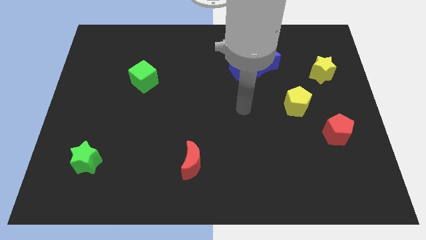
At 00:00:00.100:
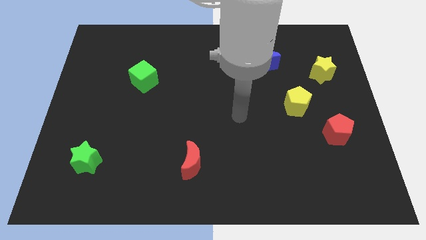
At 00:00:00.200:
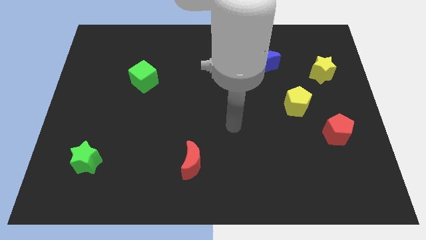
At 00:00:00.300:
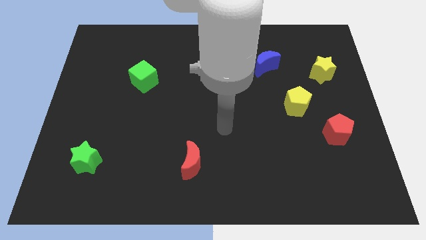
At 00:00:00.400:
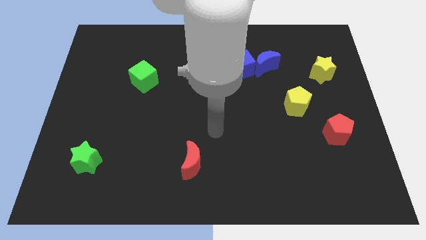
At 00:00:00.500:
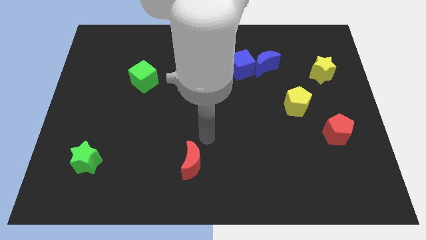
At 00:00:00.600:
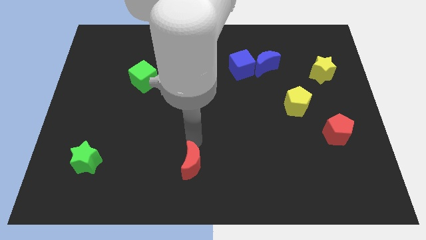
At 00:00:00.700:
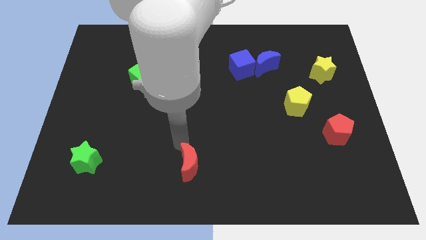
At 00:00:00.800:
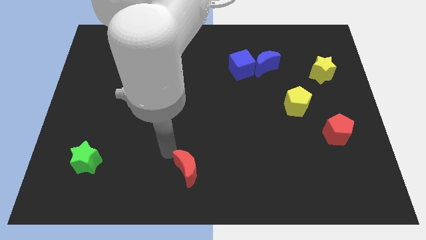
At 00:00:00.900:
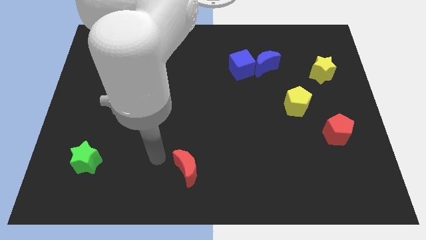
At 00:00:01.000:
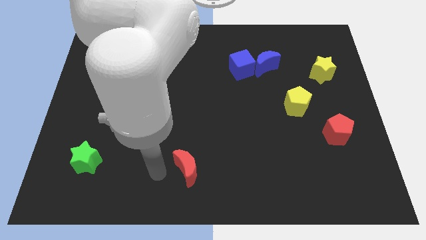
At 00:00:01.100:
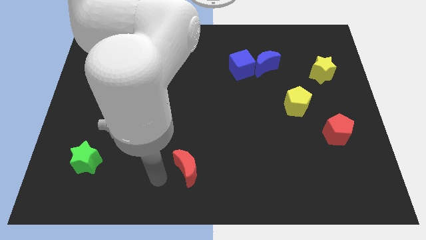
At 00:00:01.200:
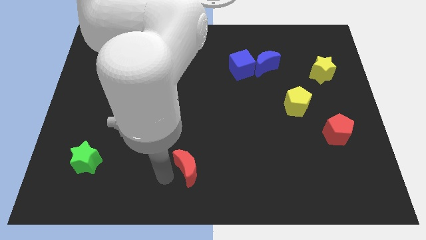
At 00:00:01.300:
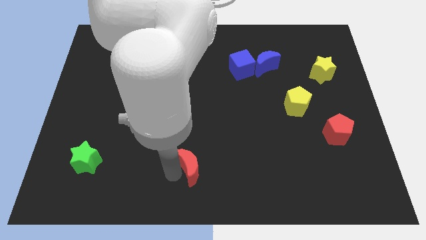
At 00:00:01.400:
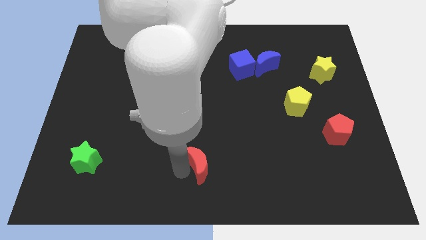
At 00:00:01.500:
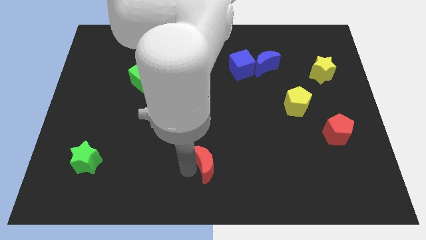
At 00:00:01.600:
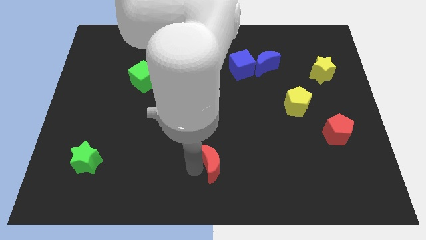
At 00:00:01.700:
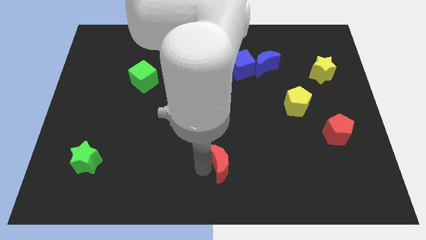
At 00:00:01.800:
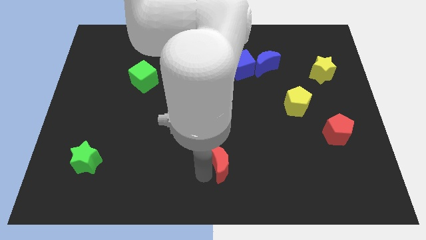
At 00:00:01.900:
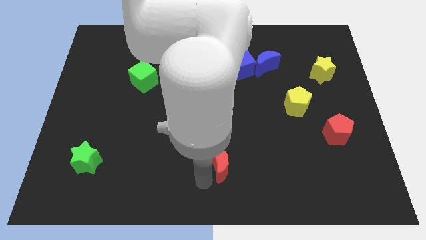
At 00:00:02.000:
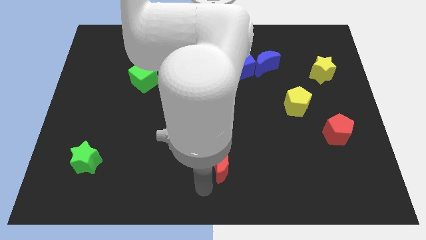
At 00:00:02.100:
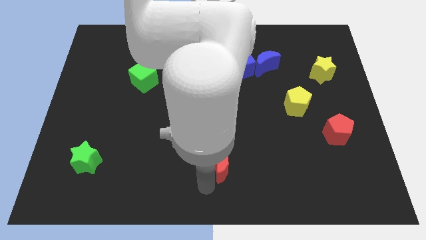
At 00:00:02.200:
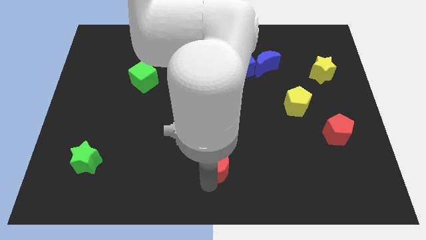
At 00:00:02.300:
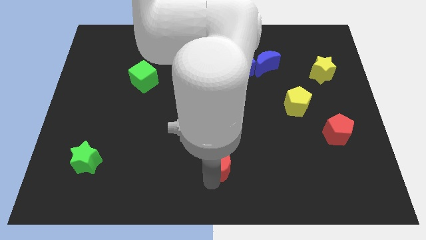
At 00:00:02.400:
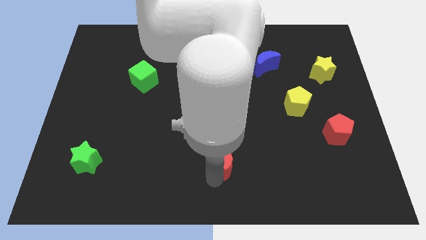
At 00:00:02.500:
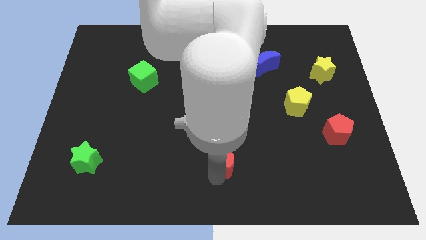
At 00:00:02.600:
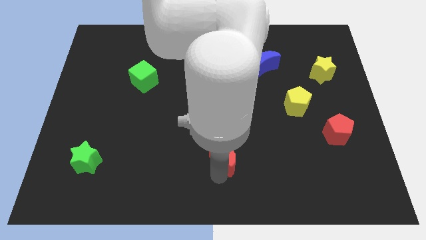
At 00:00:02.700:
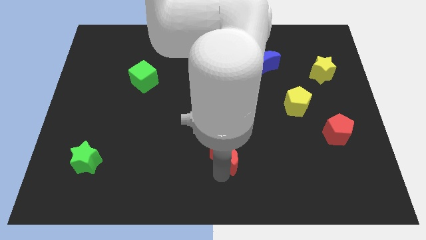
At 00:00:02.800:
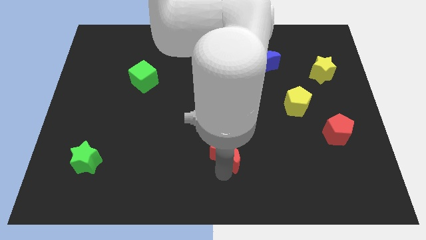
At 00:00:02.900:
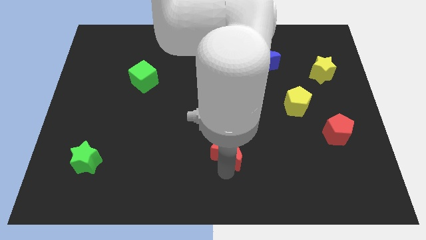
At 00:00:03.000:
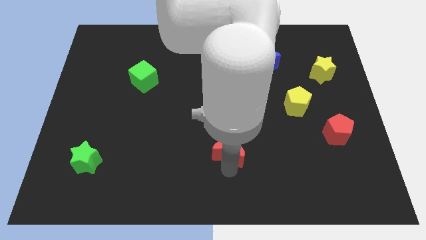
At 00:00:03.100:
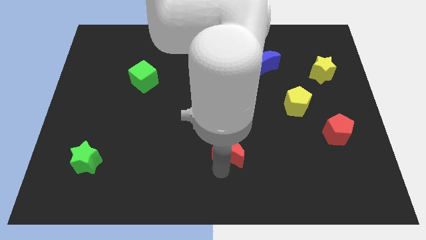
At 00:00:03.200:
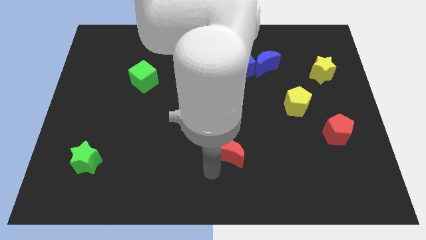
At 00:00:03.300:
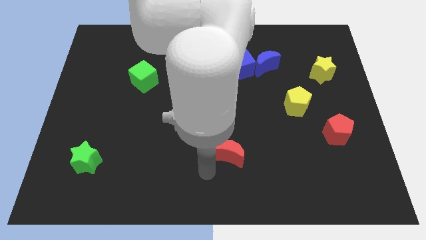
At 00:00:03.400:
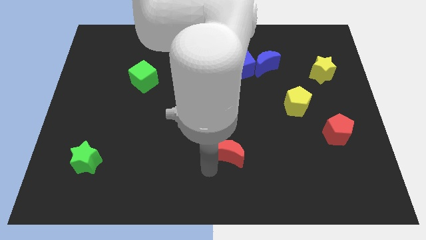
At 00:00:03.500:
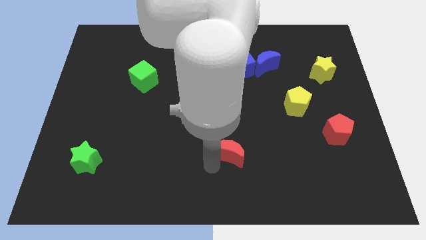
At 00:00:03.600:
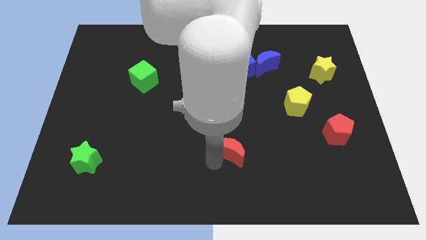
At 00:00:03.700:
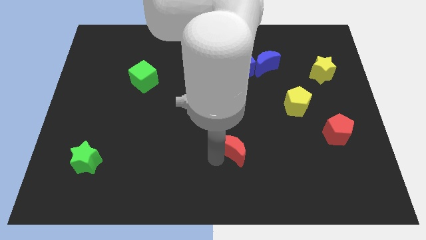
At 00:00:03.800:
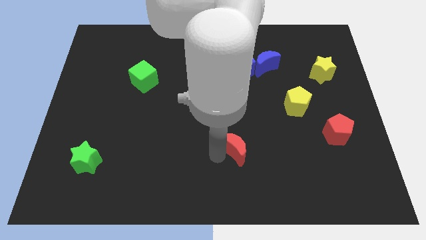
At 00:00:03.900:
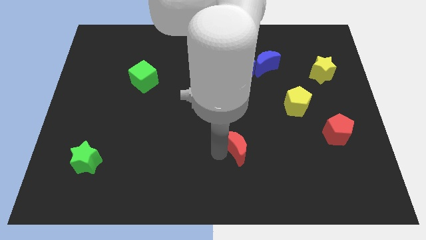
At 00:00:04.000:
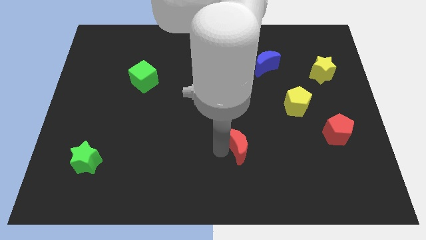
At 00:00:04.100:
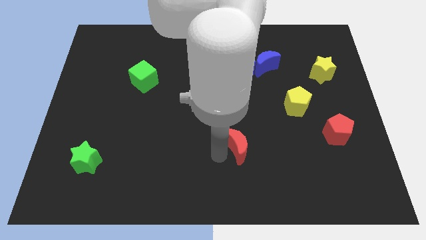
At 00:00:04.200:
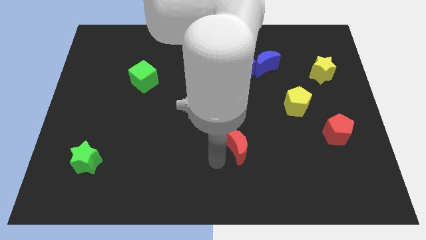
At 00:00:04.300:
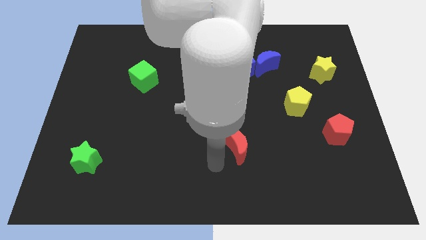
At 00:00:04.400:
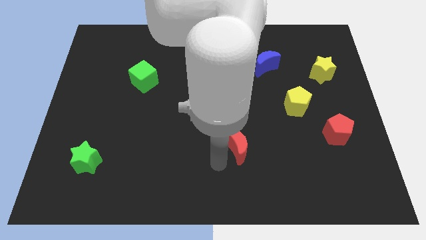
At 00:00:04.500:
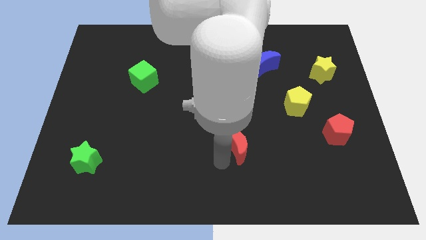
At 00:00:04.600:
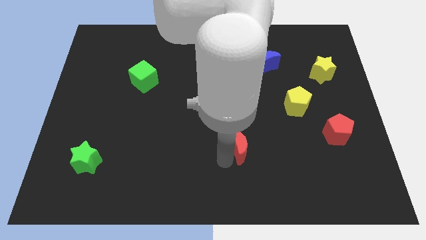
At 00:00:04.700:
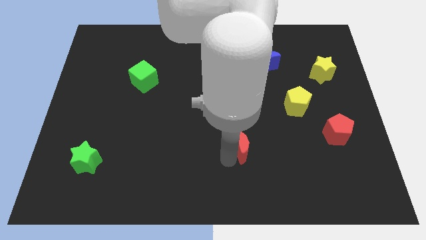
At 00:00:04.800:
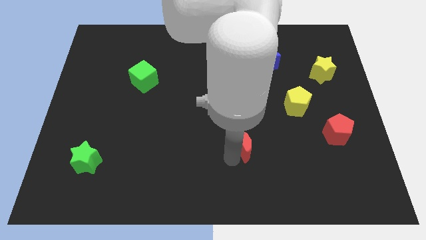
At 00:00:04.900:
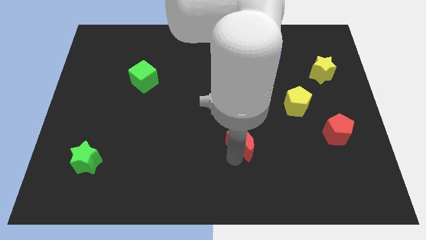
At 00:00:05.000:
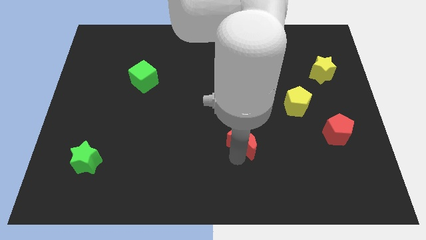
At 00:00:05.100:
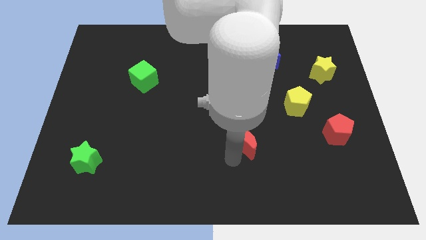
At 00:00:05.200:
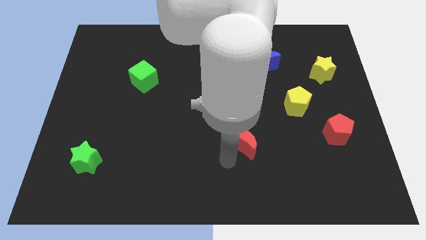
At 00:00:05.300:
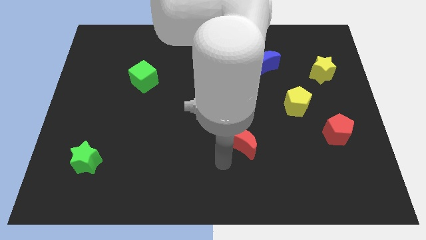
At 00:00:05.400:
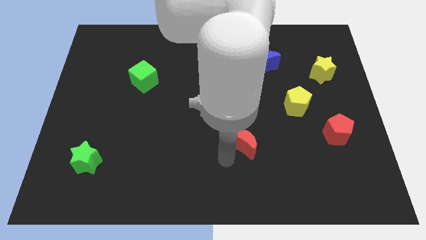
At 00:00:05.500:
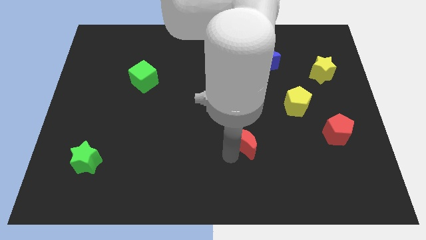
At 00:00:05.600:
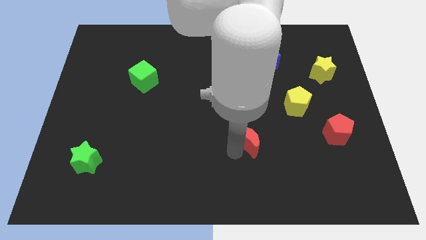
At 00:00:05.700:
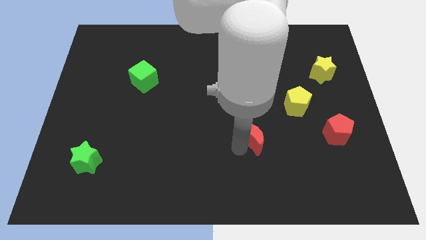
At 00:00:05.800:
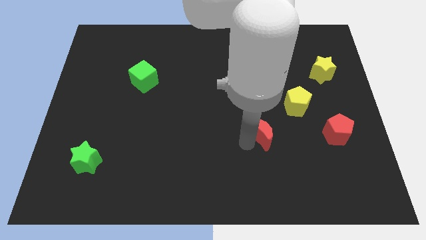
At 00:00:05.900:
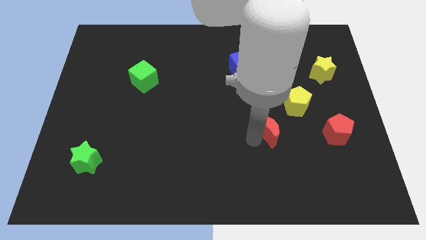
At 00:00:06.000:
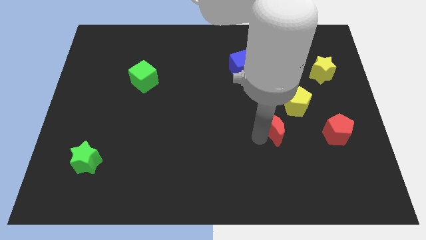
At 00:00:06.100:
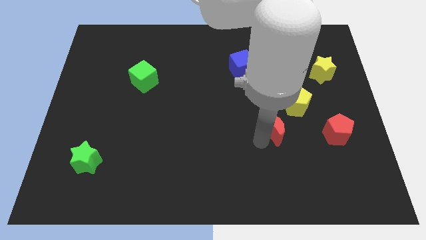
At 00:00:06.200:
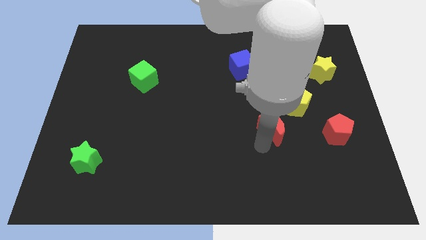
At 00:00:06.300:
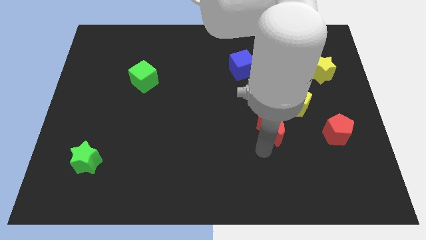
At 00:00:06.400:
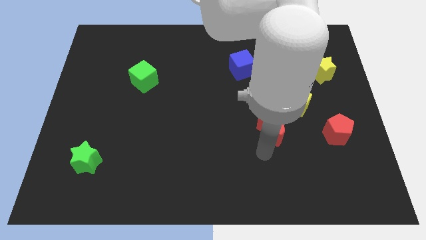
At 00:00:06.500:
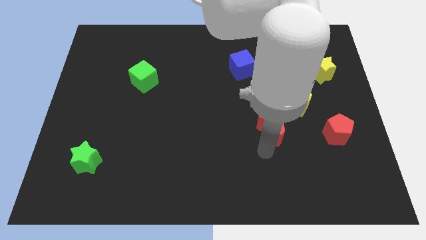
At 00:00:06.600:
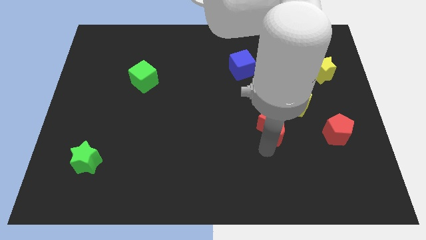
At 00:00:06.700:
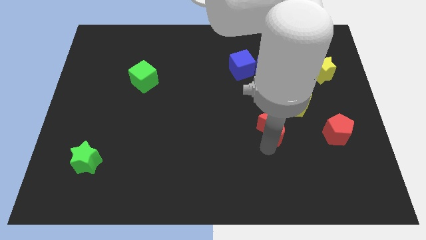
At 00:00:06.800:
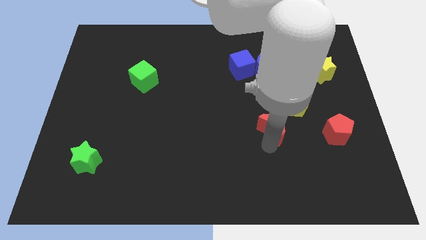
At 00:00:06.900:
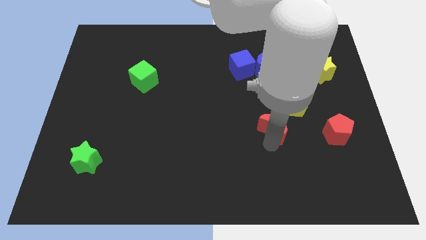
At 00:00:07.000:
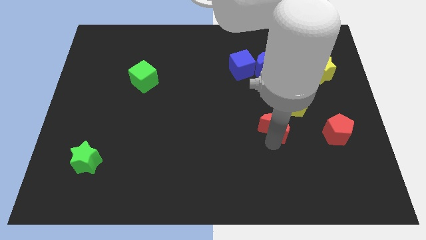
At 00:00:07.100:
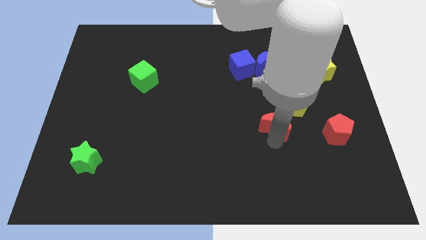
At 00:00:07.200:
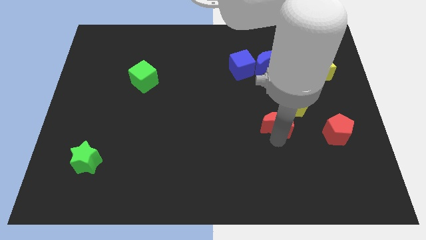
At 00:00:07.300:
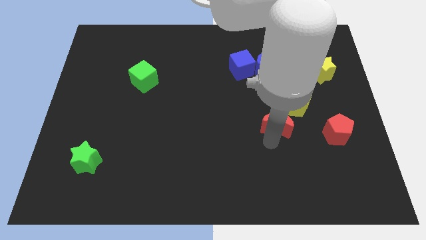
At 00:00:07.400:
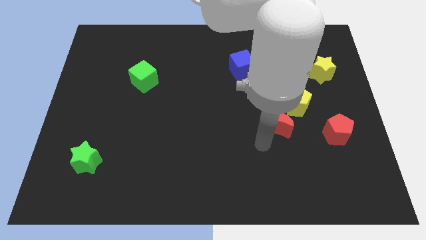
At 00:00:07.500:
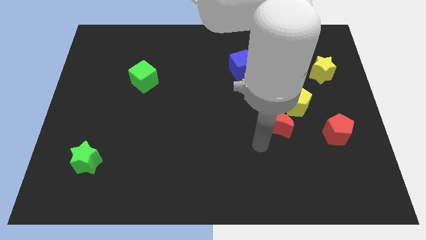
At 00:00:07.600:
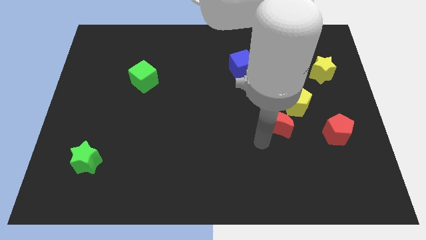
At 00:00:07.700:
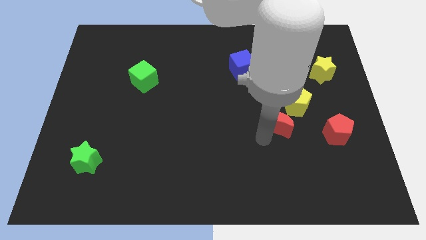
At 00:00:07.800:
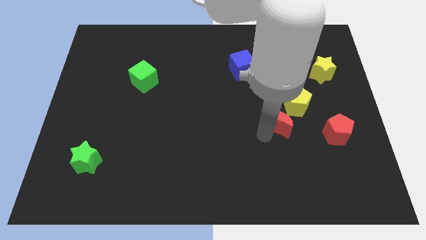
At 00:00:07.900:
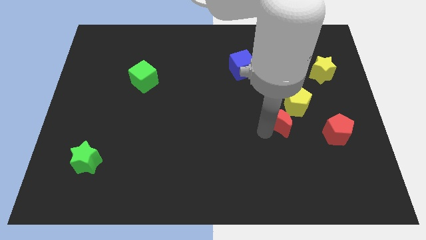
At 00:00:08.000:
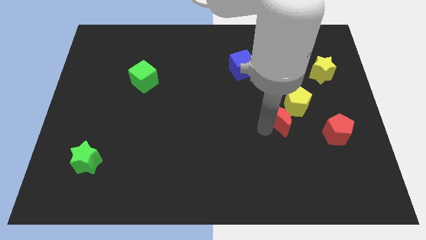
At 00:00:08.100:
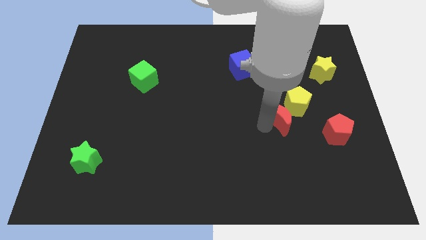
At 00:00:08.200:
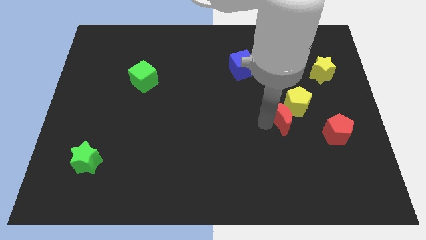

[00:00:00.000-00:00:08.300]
slide the red moon next to the yellow pentagon
